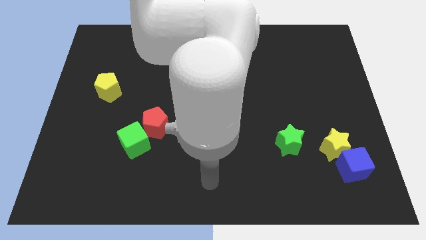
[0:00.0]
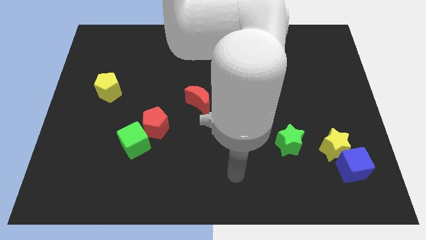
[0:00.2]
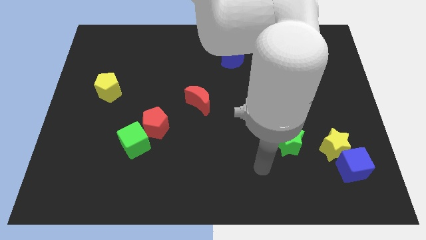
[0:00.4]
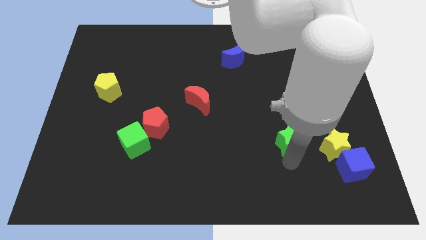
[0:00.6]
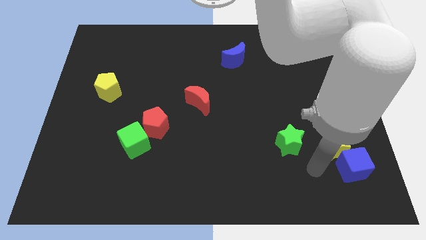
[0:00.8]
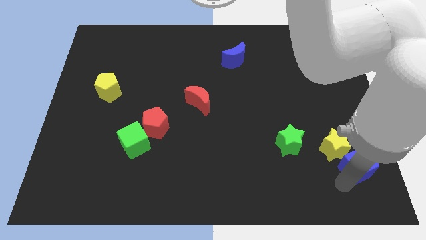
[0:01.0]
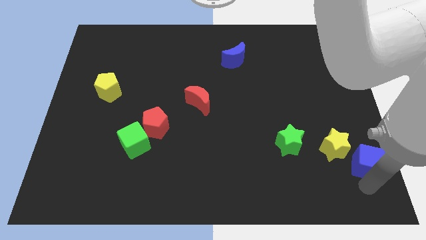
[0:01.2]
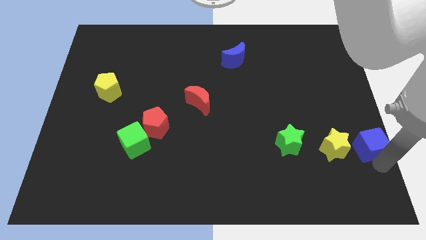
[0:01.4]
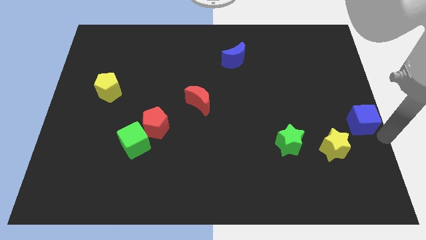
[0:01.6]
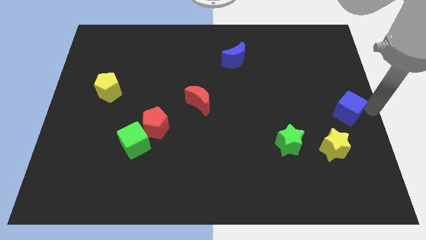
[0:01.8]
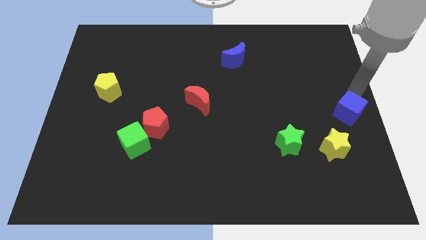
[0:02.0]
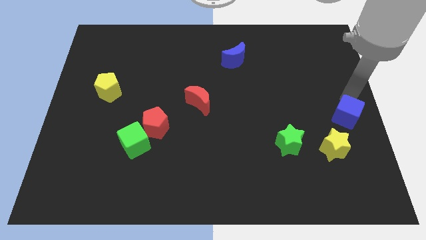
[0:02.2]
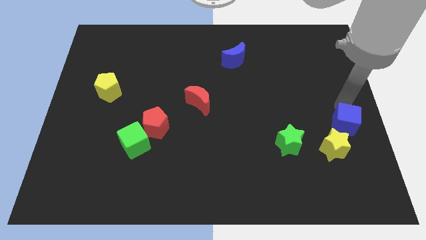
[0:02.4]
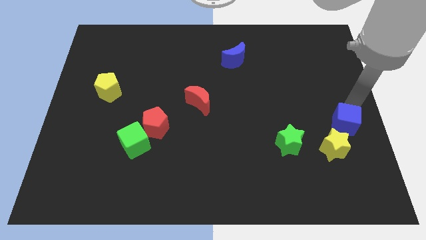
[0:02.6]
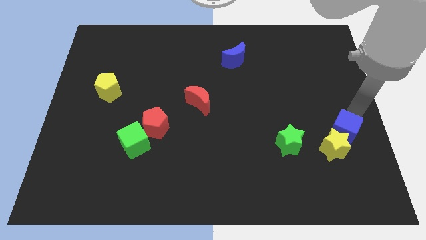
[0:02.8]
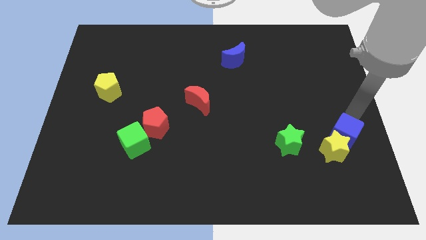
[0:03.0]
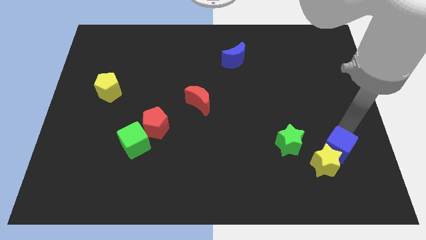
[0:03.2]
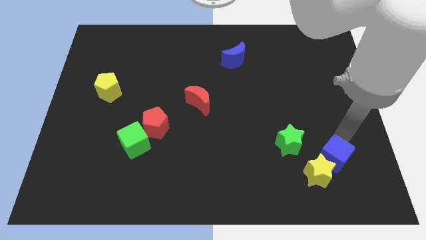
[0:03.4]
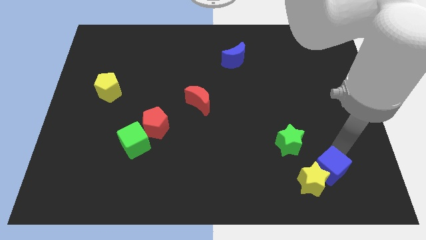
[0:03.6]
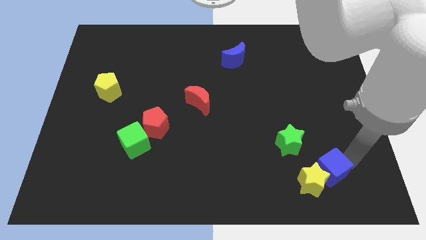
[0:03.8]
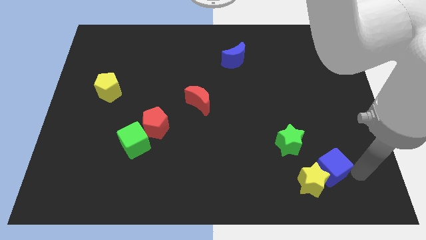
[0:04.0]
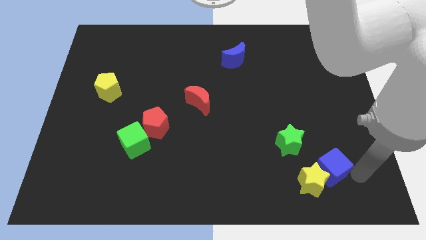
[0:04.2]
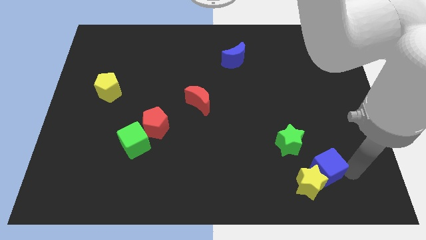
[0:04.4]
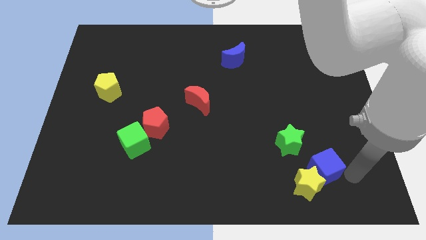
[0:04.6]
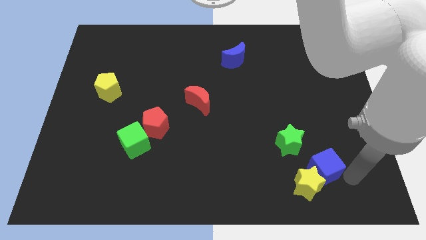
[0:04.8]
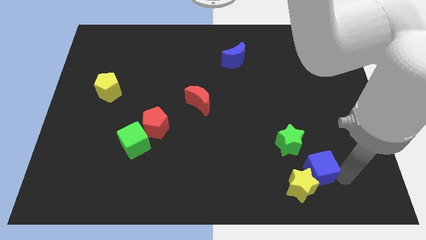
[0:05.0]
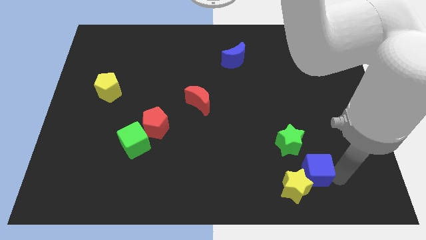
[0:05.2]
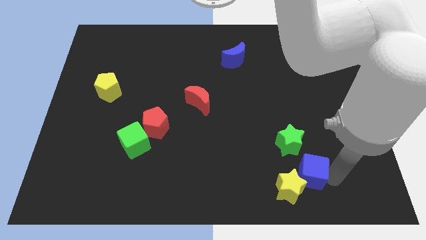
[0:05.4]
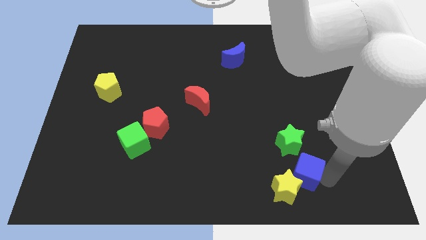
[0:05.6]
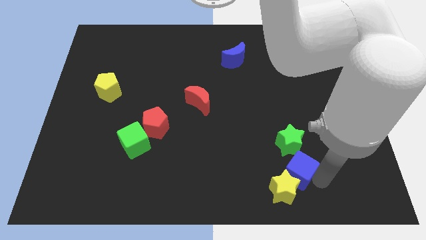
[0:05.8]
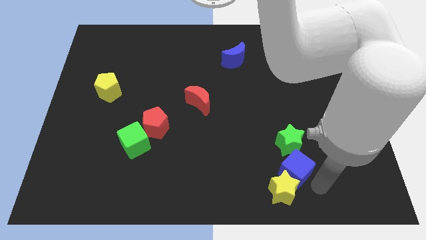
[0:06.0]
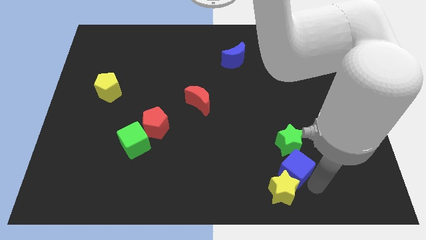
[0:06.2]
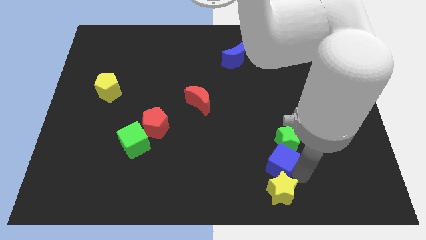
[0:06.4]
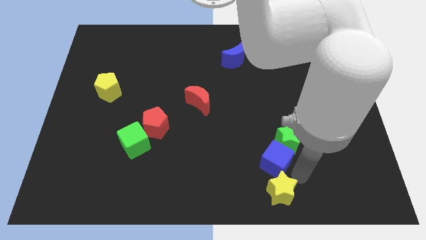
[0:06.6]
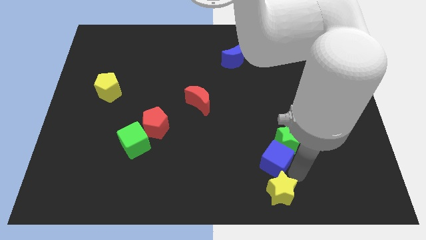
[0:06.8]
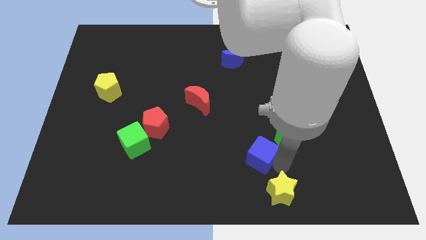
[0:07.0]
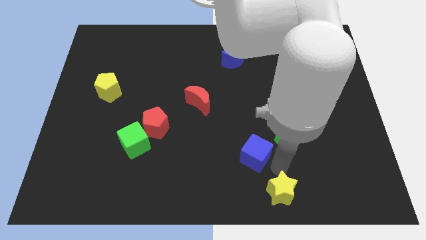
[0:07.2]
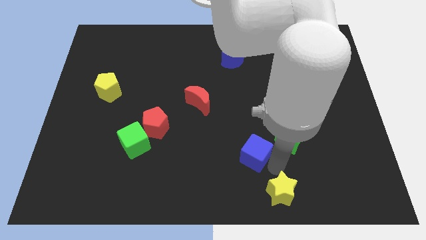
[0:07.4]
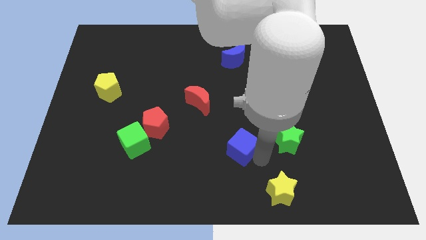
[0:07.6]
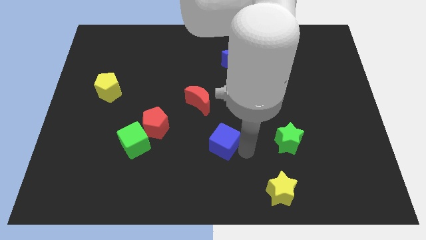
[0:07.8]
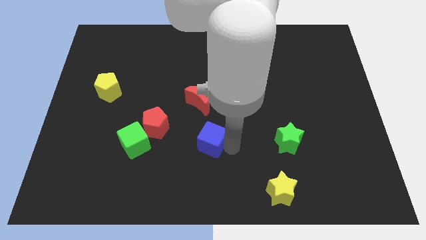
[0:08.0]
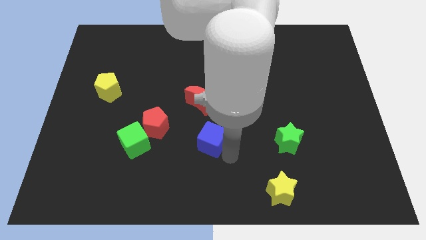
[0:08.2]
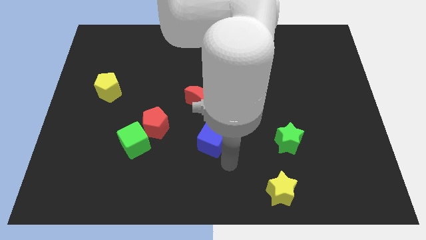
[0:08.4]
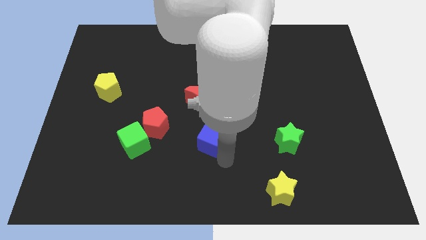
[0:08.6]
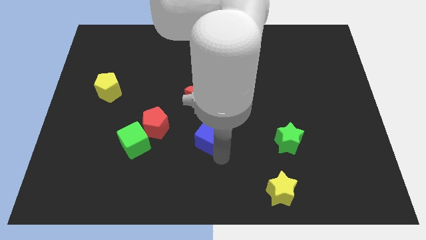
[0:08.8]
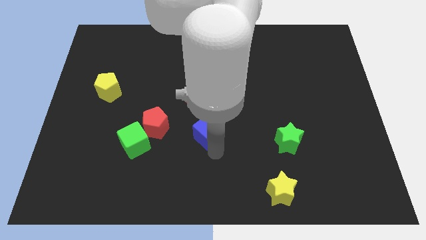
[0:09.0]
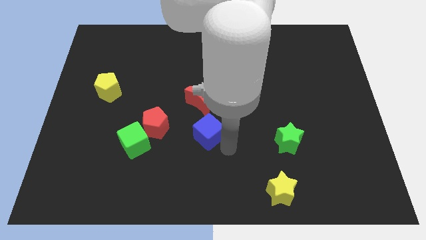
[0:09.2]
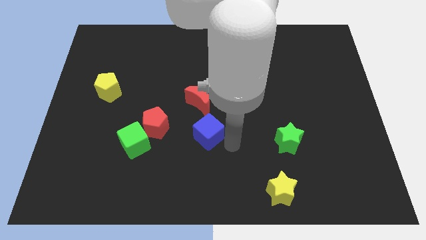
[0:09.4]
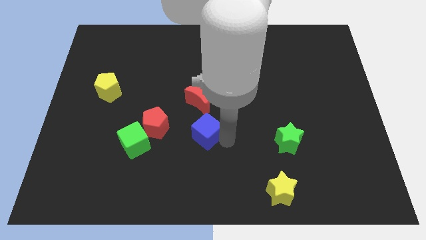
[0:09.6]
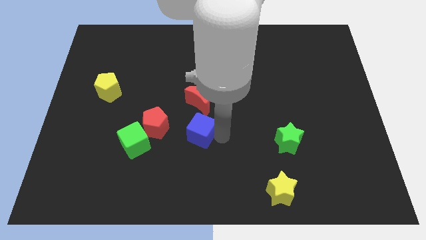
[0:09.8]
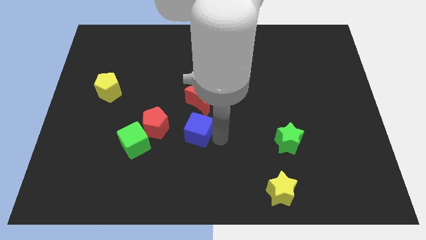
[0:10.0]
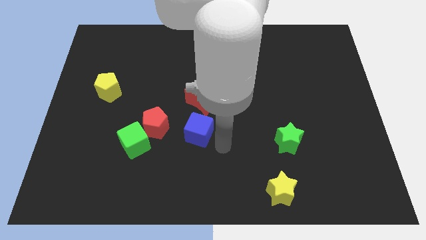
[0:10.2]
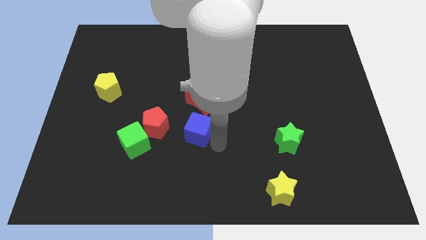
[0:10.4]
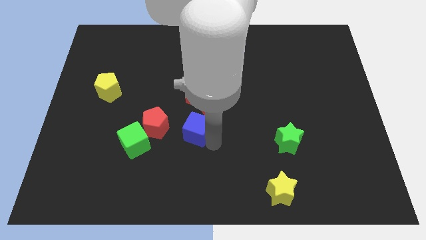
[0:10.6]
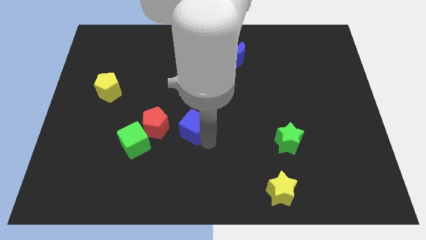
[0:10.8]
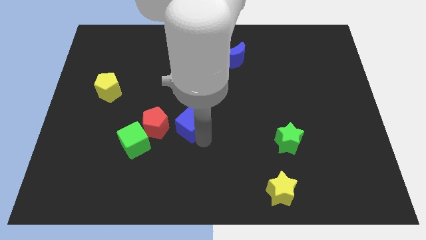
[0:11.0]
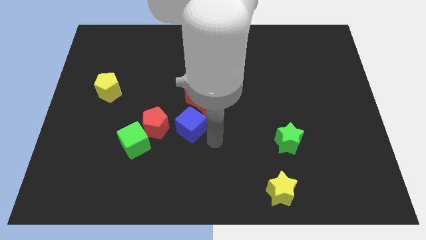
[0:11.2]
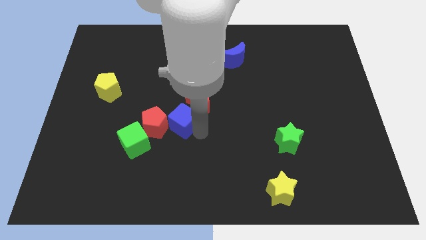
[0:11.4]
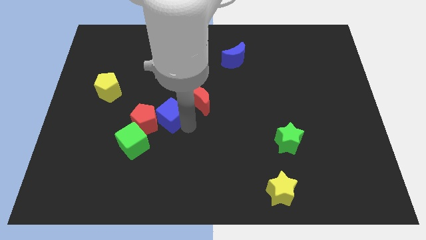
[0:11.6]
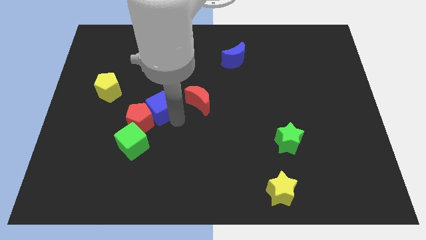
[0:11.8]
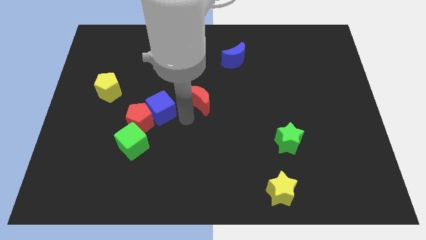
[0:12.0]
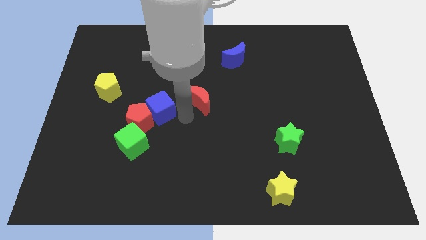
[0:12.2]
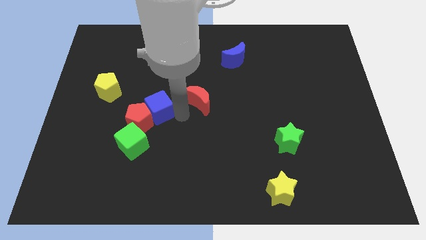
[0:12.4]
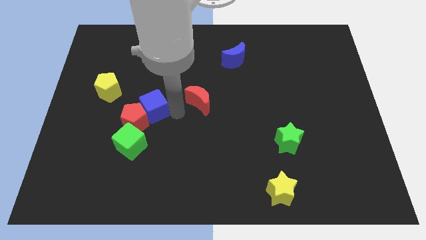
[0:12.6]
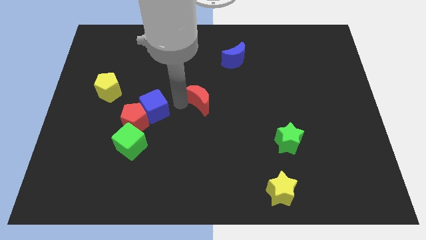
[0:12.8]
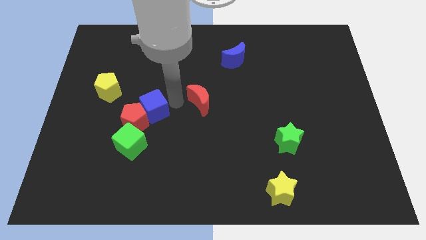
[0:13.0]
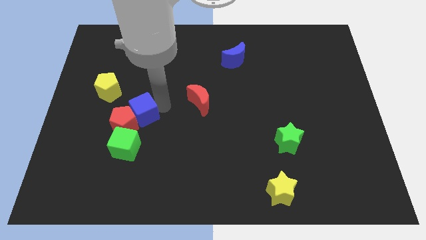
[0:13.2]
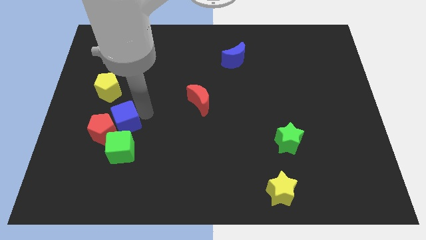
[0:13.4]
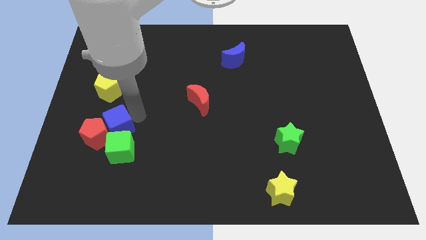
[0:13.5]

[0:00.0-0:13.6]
put the blue cube to the top left side of the green cube

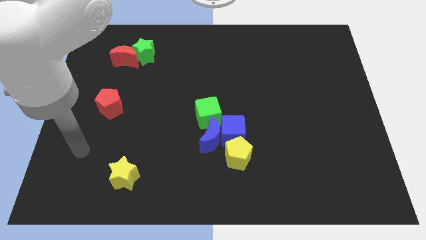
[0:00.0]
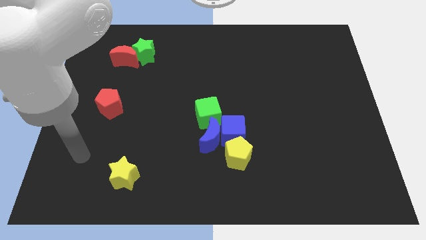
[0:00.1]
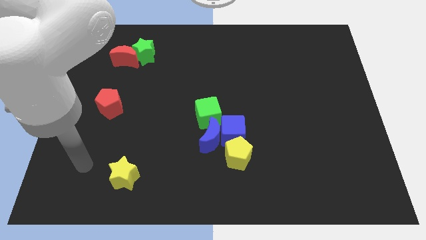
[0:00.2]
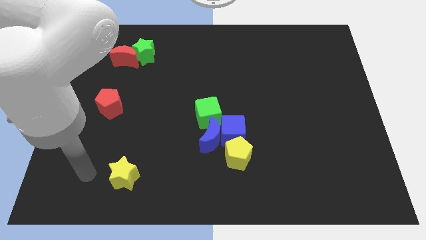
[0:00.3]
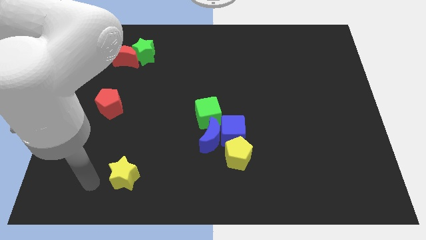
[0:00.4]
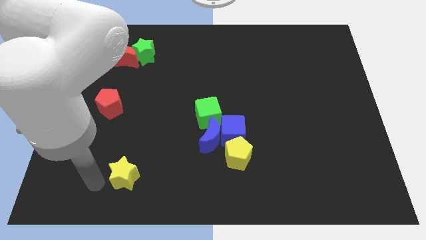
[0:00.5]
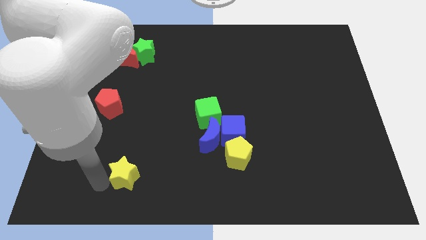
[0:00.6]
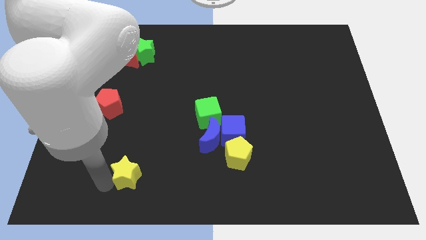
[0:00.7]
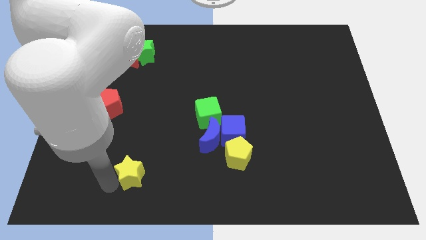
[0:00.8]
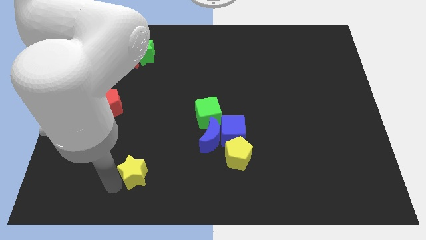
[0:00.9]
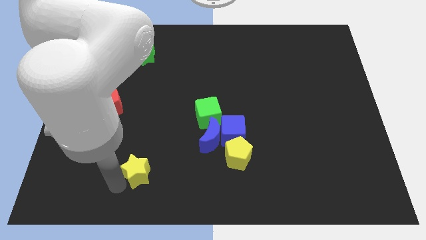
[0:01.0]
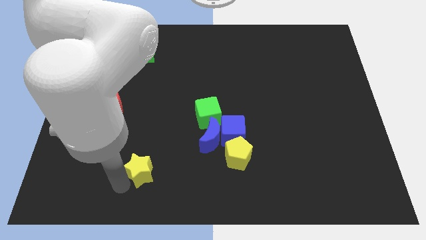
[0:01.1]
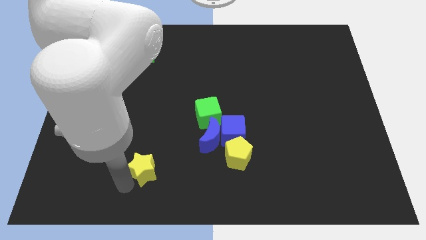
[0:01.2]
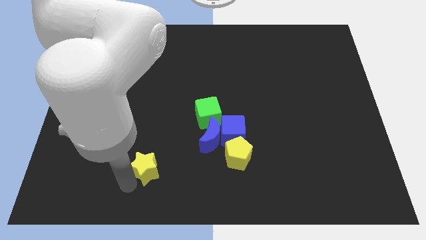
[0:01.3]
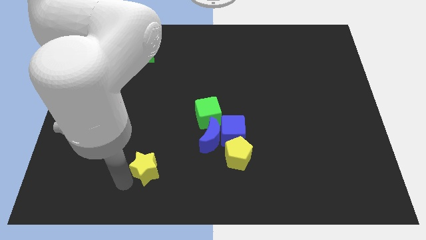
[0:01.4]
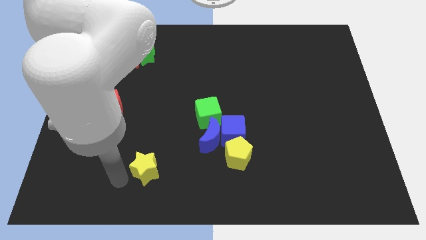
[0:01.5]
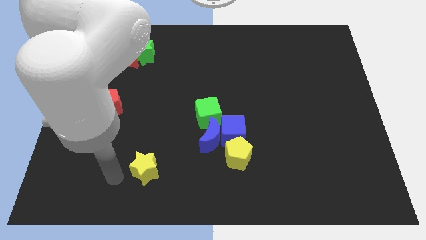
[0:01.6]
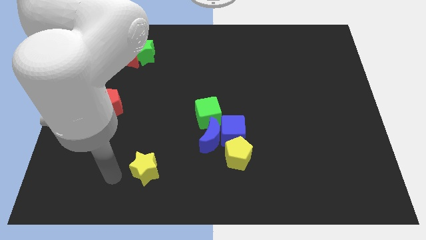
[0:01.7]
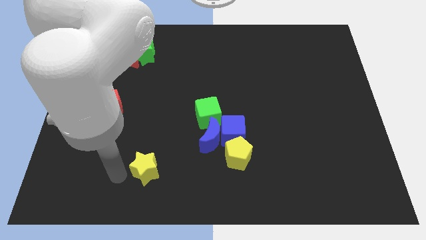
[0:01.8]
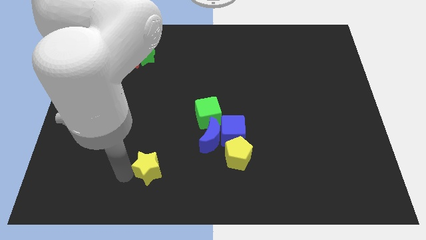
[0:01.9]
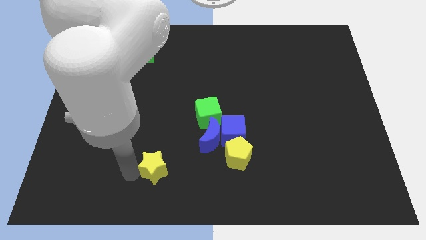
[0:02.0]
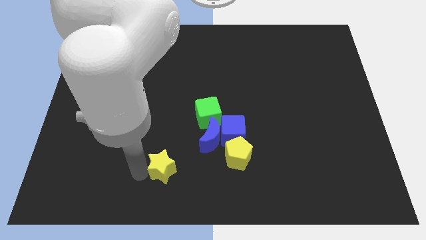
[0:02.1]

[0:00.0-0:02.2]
move the yellow star diagonally down and to the left of the blue moon
